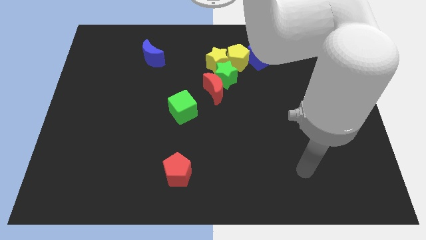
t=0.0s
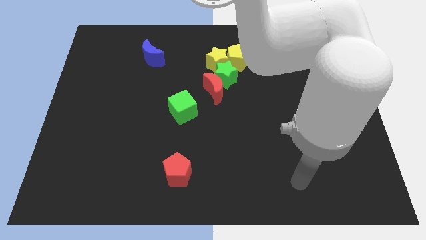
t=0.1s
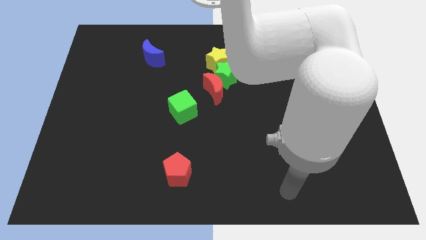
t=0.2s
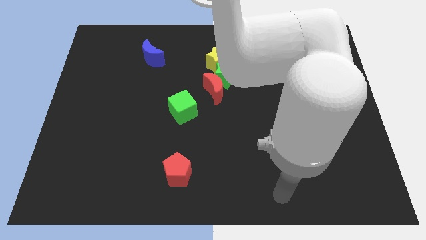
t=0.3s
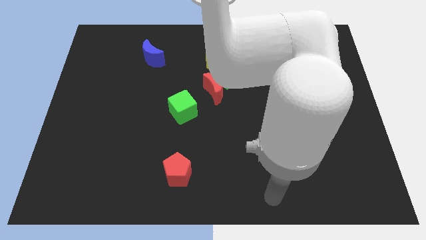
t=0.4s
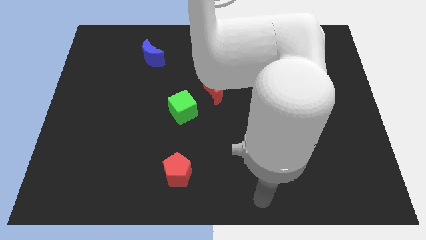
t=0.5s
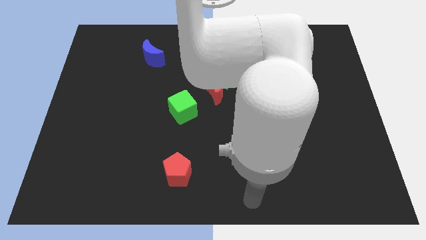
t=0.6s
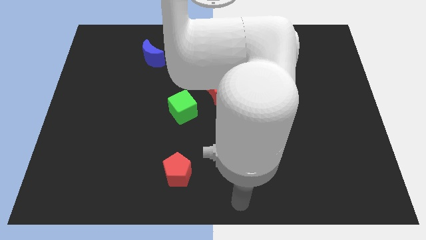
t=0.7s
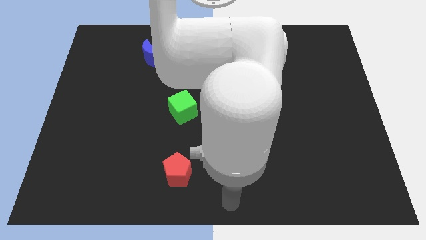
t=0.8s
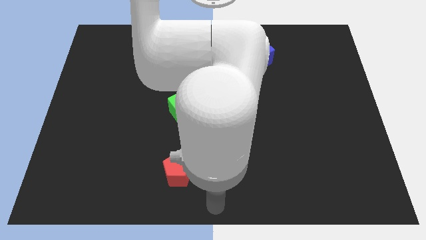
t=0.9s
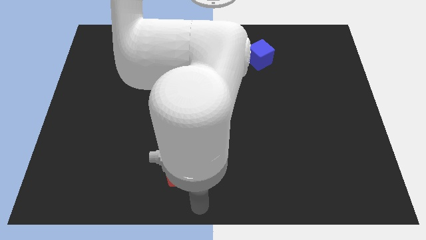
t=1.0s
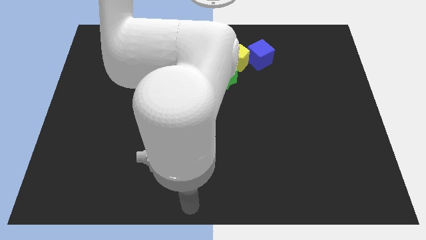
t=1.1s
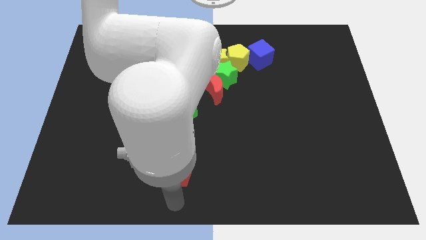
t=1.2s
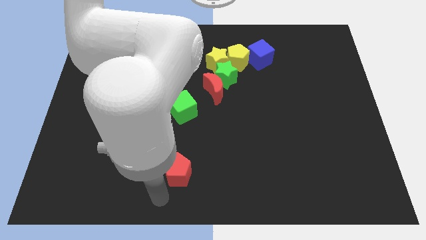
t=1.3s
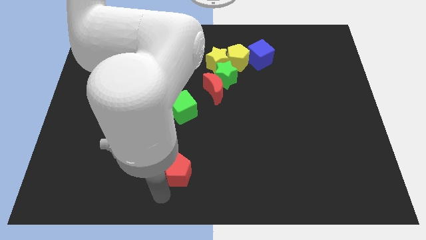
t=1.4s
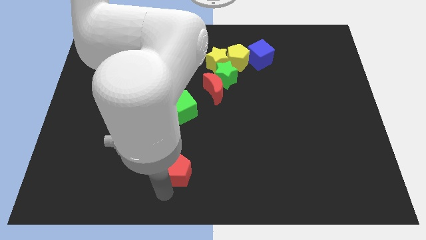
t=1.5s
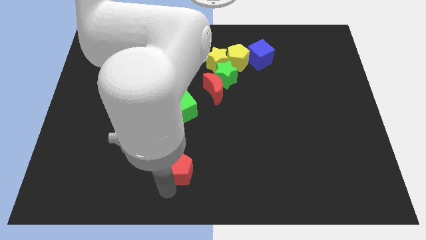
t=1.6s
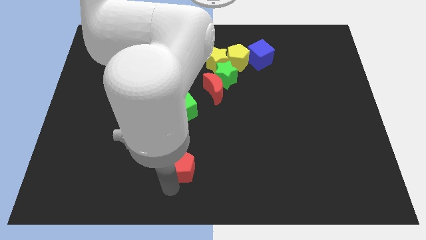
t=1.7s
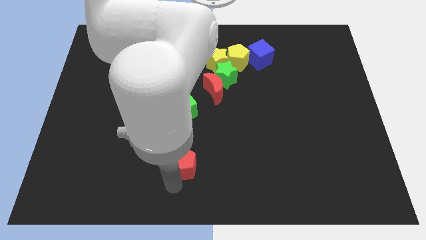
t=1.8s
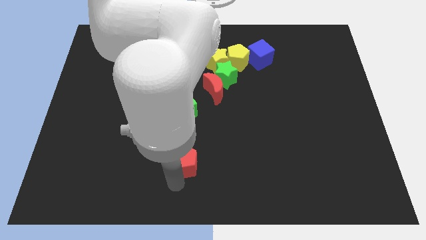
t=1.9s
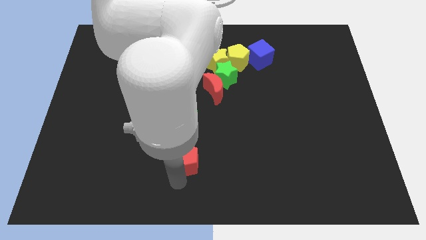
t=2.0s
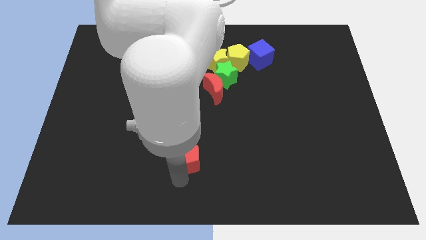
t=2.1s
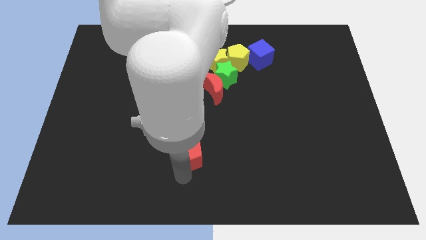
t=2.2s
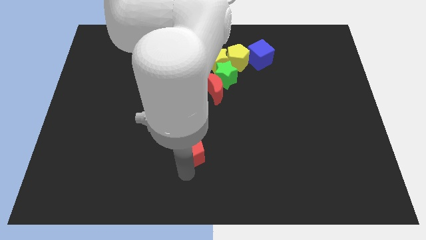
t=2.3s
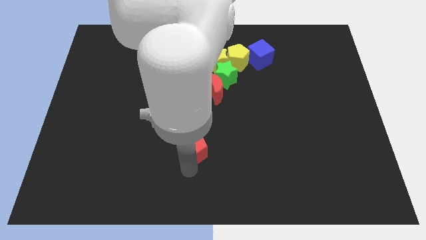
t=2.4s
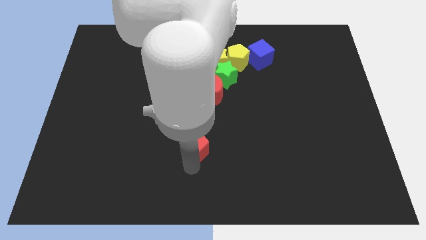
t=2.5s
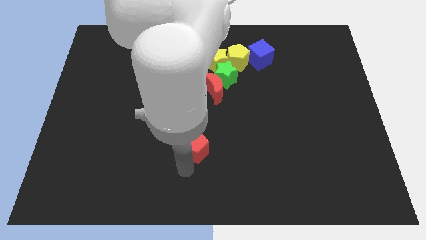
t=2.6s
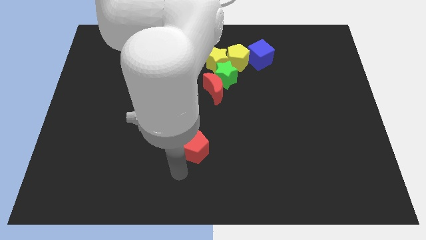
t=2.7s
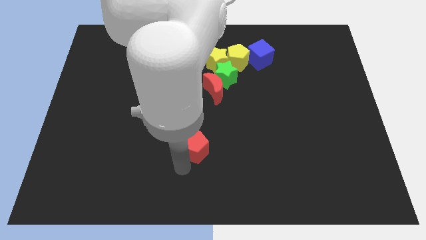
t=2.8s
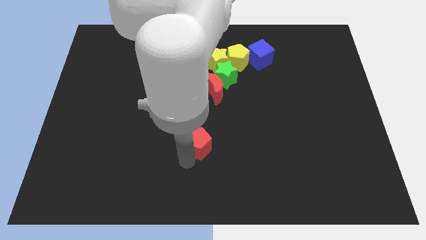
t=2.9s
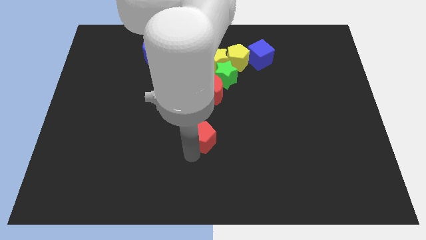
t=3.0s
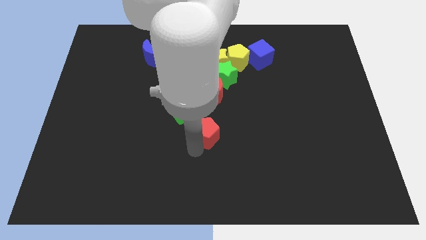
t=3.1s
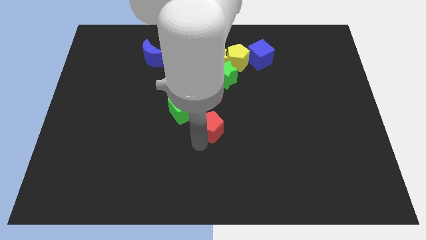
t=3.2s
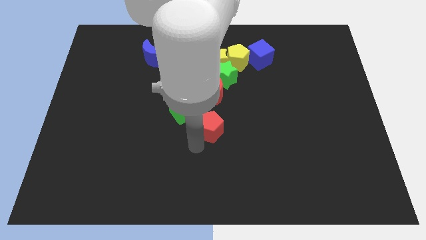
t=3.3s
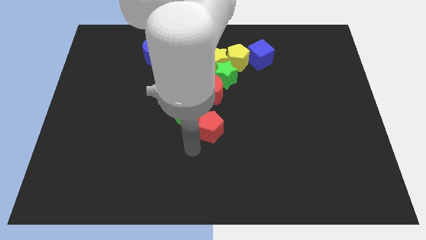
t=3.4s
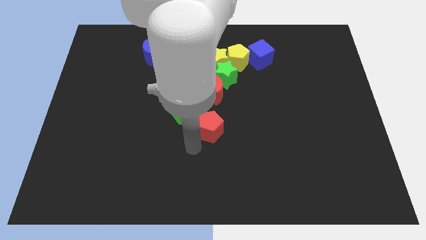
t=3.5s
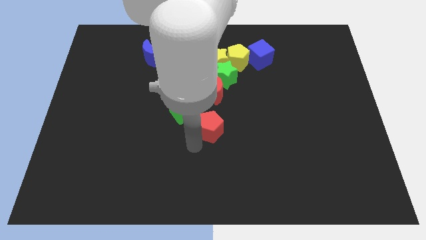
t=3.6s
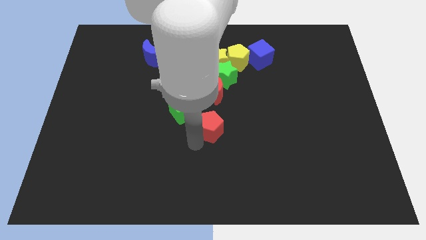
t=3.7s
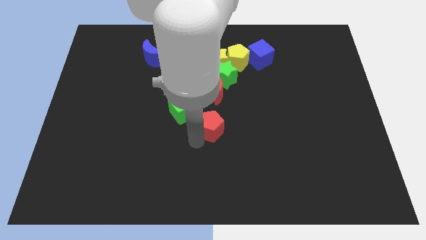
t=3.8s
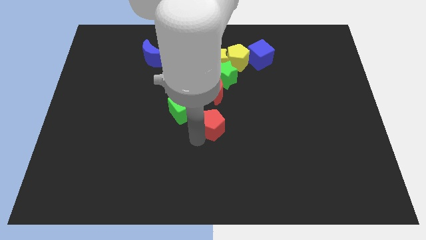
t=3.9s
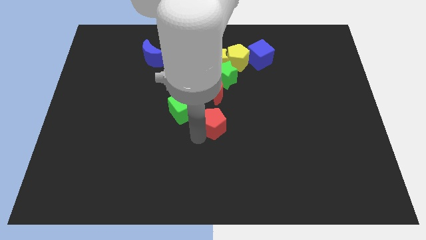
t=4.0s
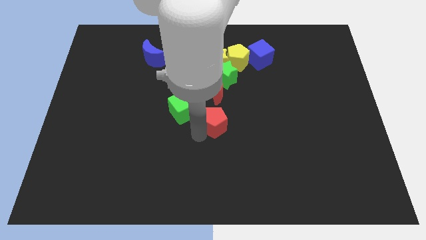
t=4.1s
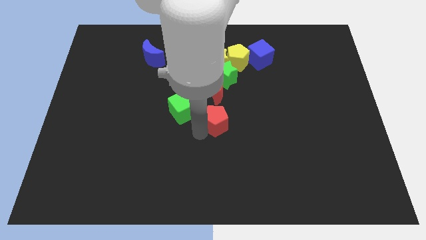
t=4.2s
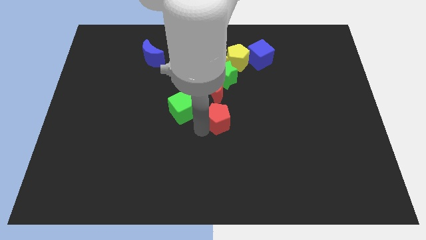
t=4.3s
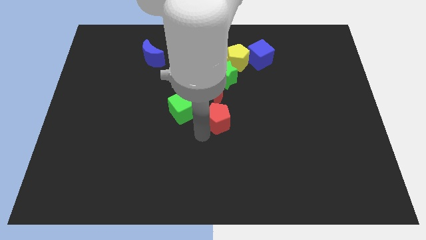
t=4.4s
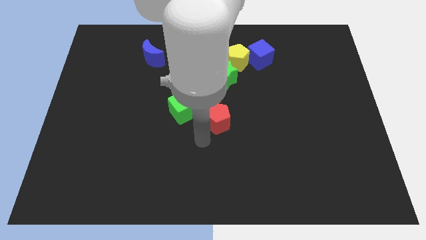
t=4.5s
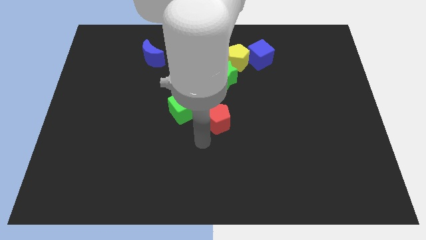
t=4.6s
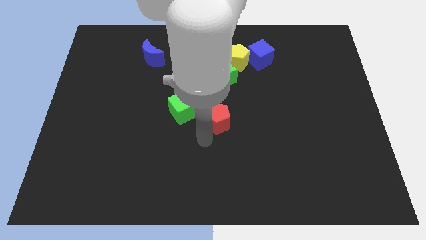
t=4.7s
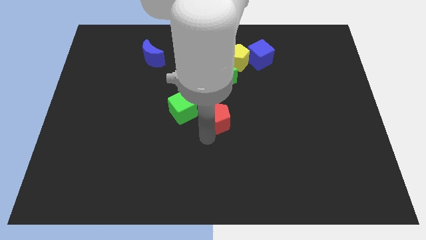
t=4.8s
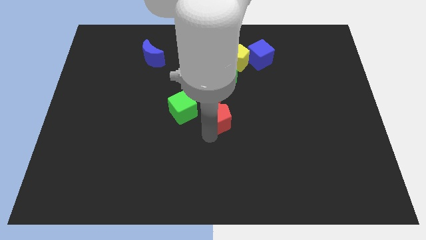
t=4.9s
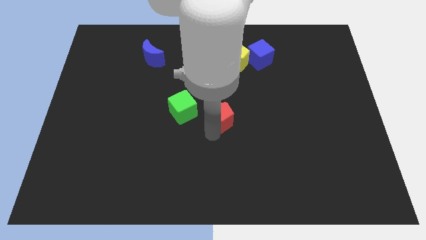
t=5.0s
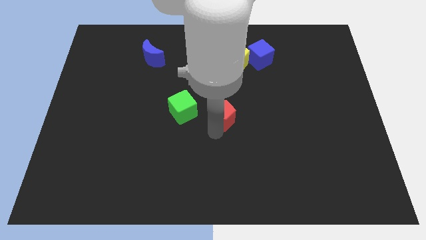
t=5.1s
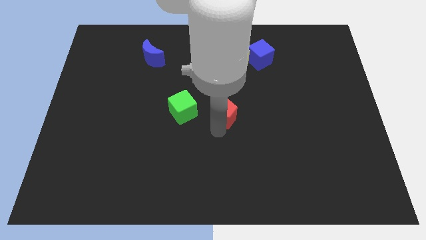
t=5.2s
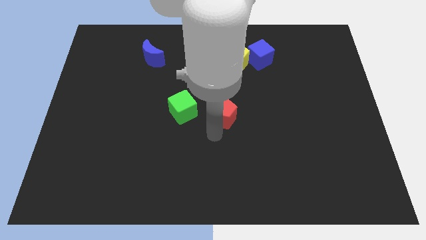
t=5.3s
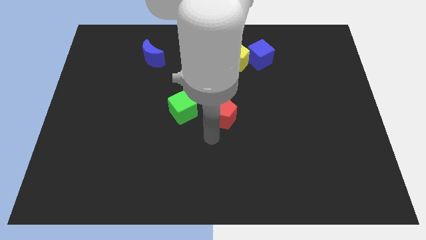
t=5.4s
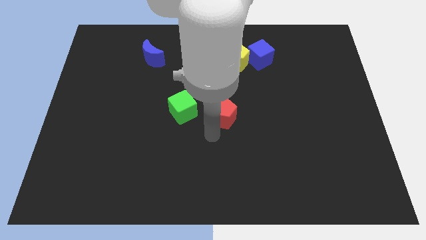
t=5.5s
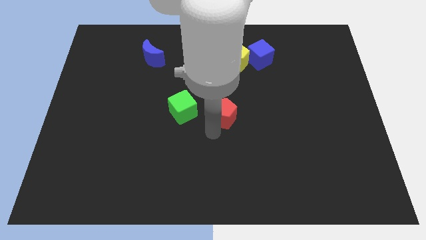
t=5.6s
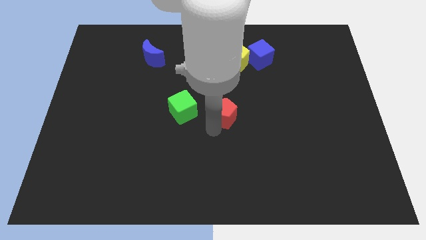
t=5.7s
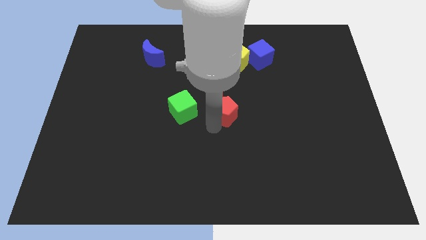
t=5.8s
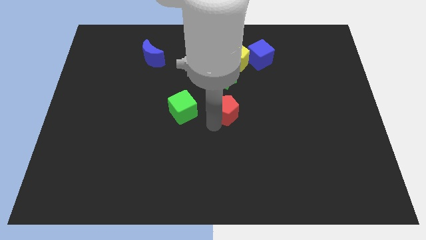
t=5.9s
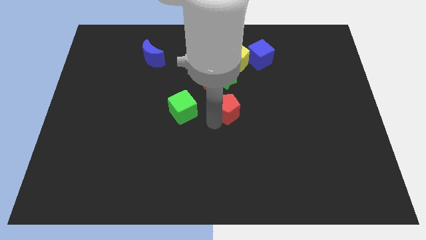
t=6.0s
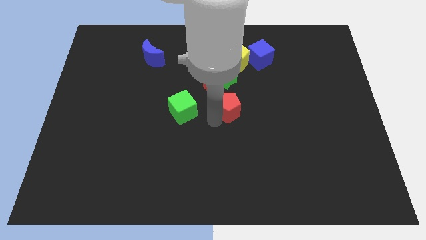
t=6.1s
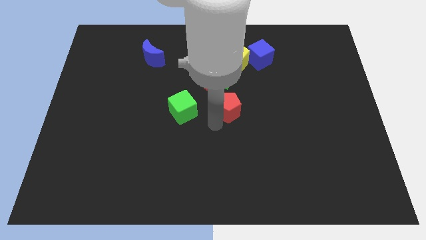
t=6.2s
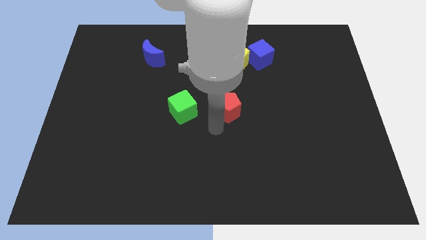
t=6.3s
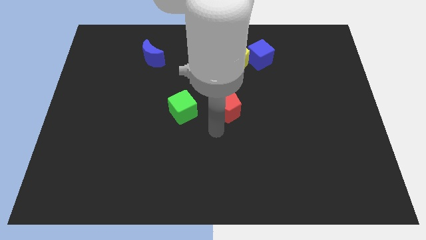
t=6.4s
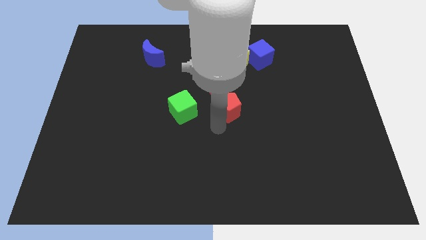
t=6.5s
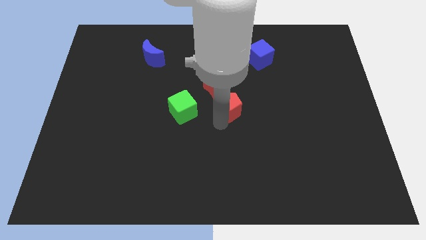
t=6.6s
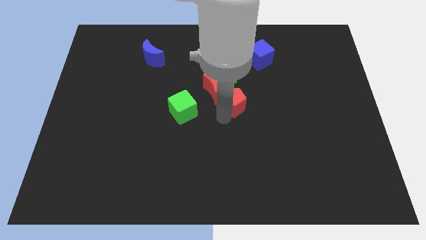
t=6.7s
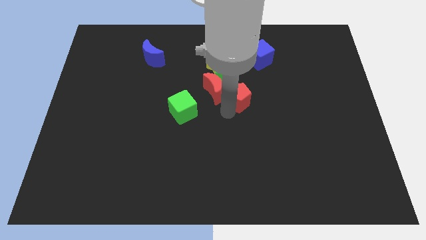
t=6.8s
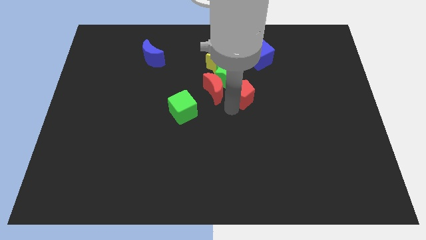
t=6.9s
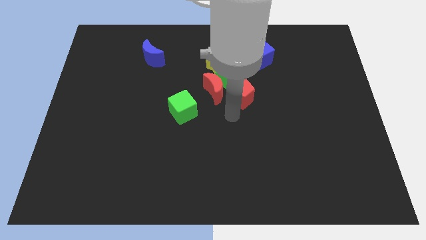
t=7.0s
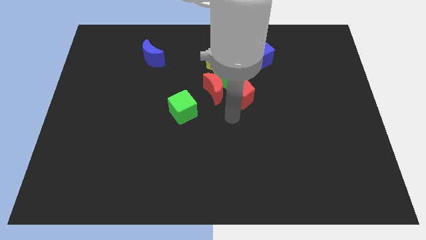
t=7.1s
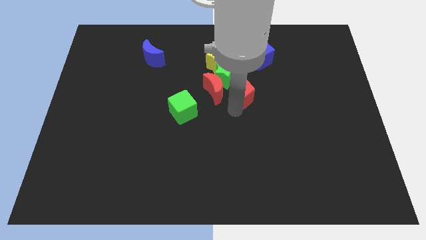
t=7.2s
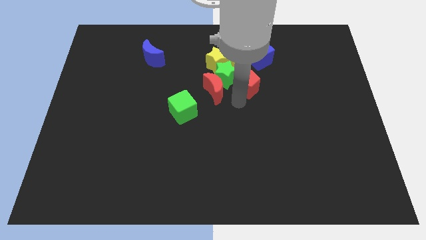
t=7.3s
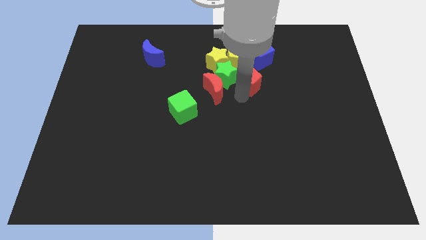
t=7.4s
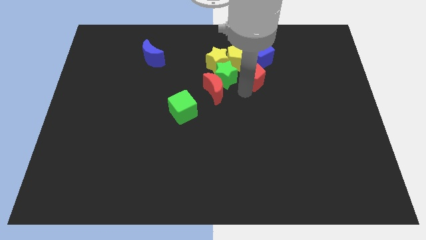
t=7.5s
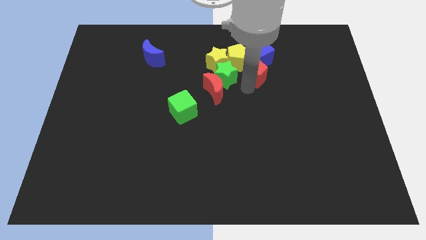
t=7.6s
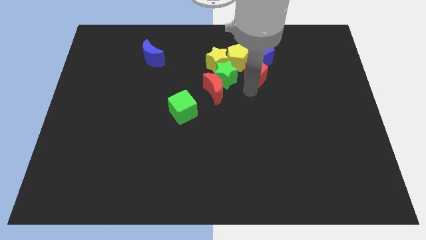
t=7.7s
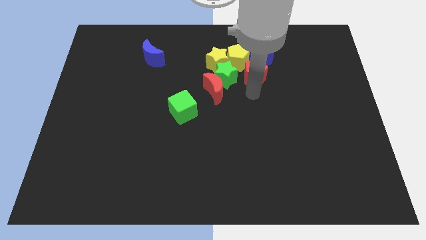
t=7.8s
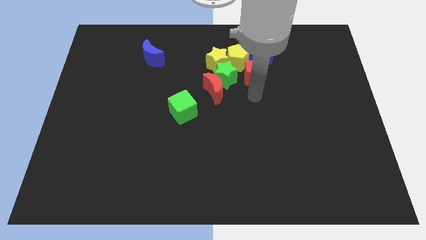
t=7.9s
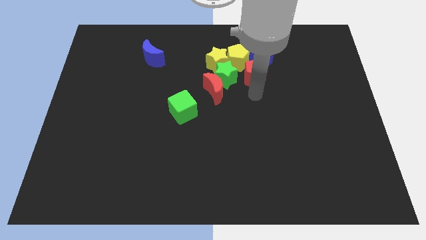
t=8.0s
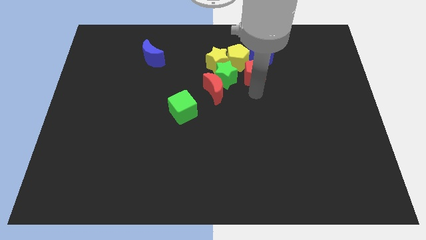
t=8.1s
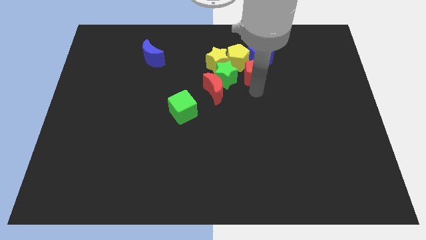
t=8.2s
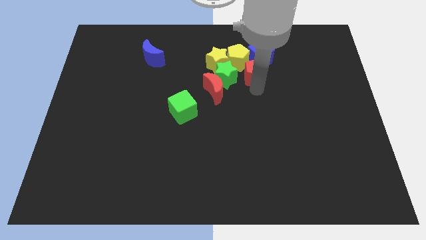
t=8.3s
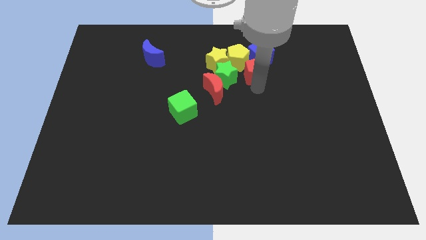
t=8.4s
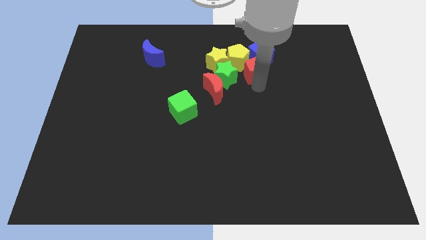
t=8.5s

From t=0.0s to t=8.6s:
push the red pentagon to the blue cube
